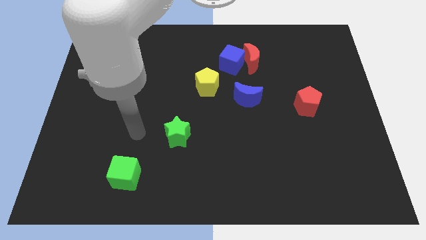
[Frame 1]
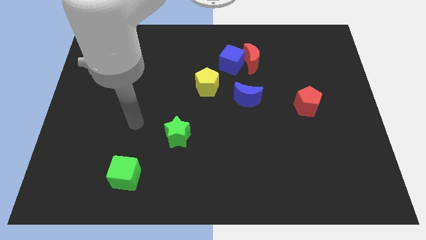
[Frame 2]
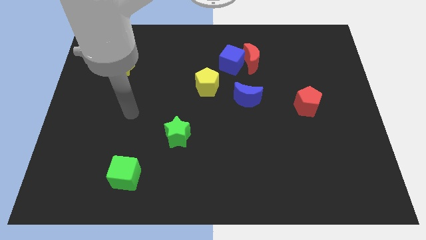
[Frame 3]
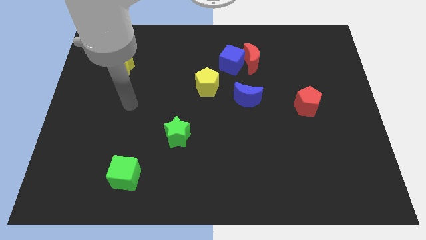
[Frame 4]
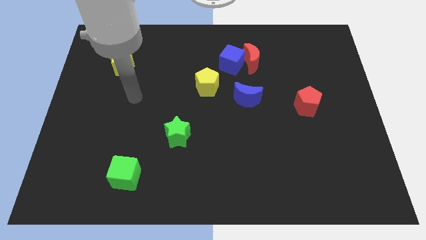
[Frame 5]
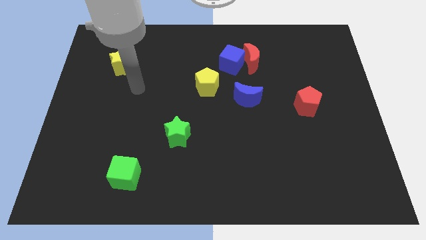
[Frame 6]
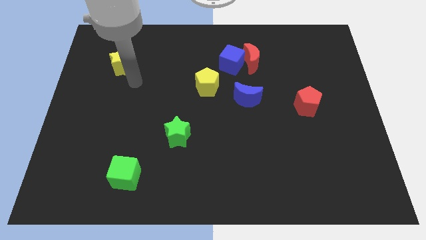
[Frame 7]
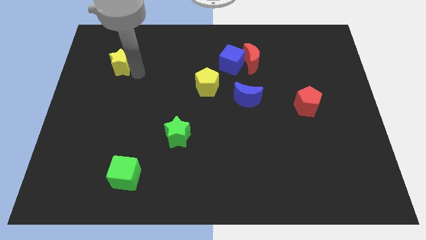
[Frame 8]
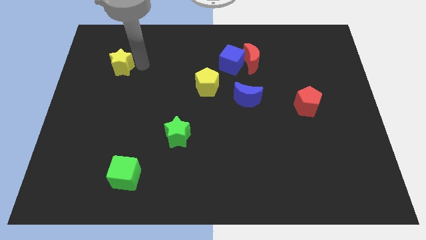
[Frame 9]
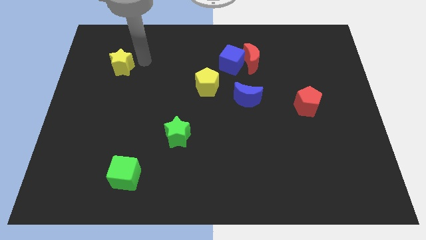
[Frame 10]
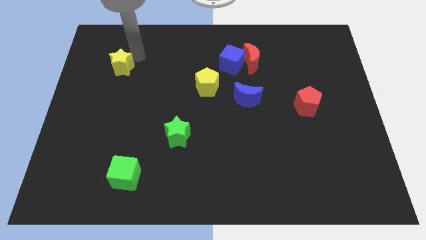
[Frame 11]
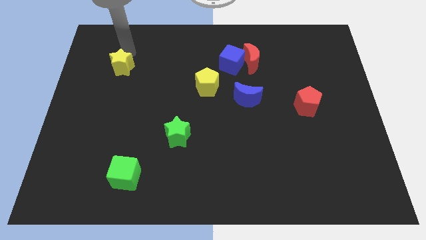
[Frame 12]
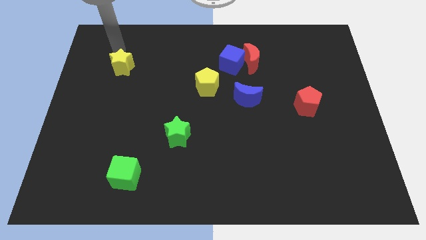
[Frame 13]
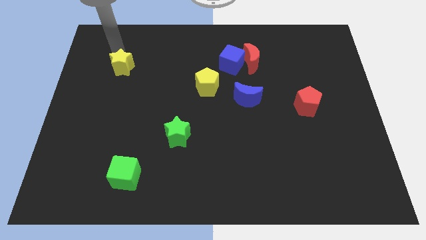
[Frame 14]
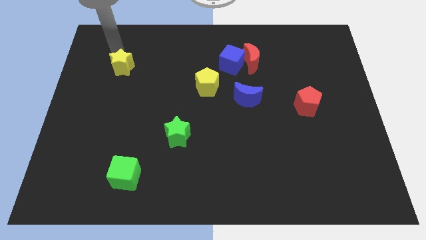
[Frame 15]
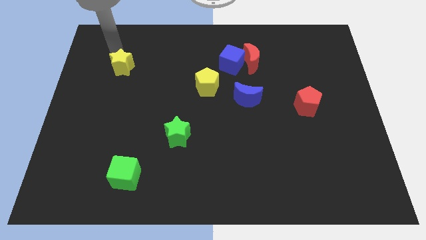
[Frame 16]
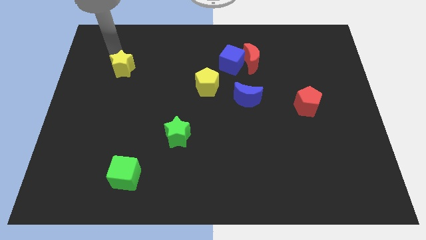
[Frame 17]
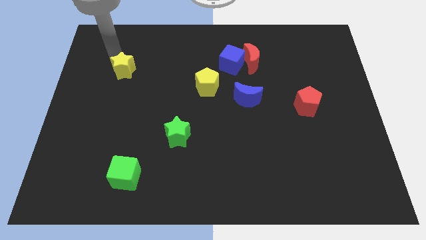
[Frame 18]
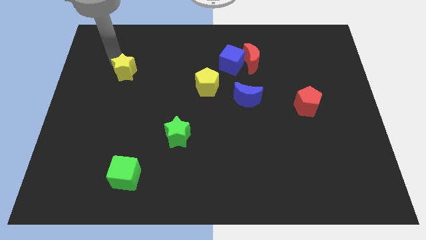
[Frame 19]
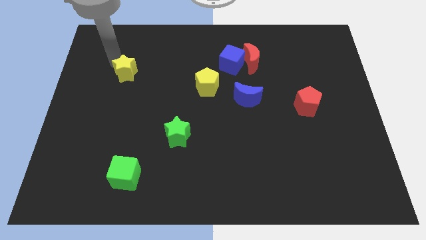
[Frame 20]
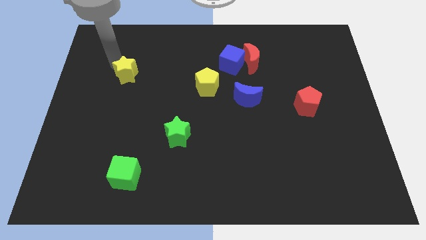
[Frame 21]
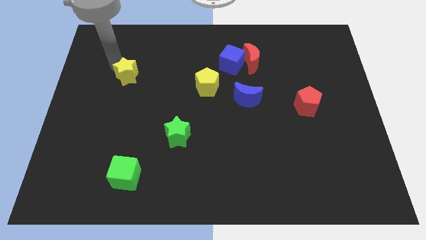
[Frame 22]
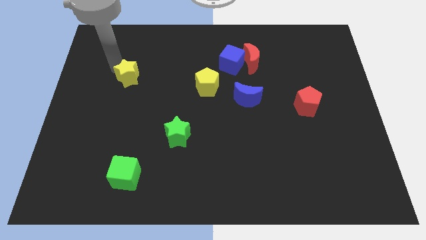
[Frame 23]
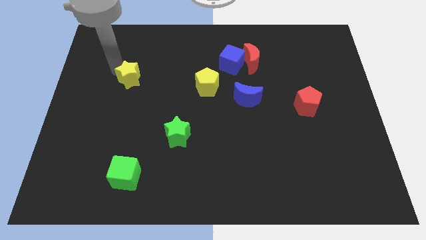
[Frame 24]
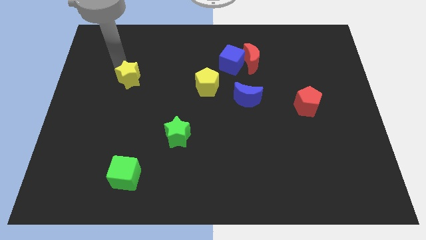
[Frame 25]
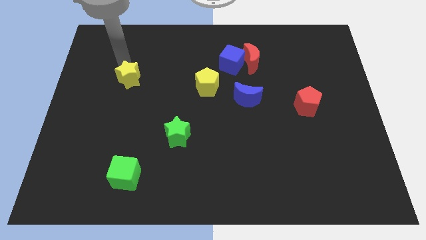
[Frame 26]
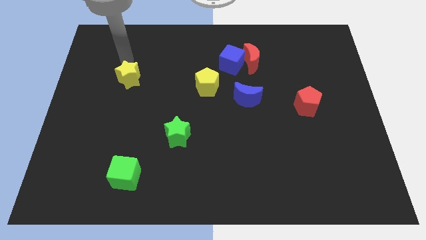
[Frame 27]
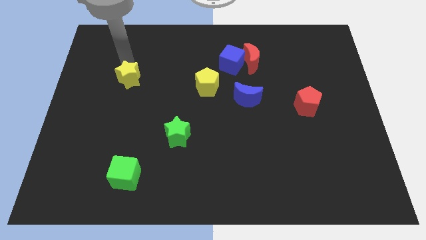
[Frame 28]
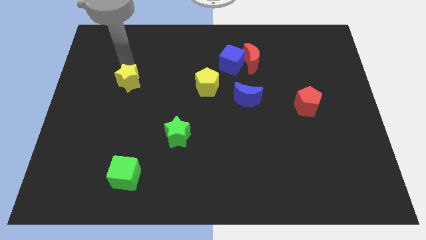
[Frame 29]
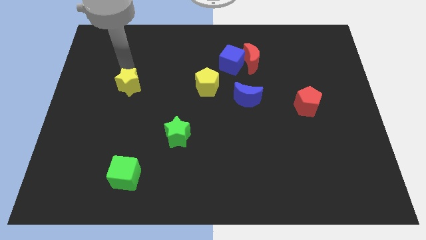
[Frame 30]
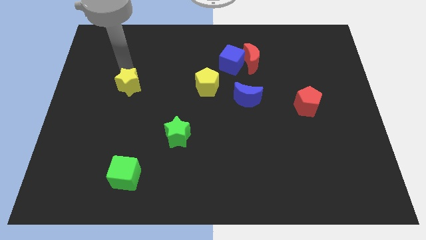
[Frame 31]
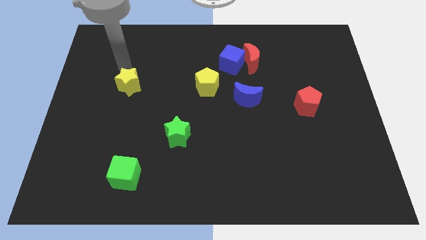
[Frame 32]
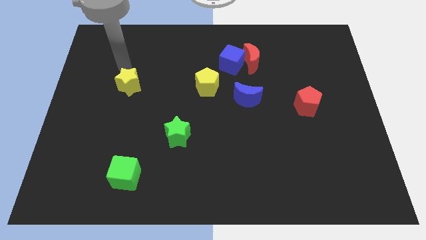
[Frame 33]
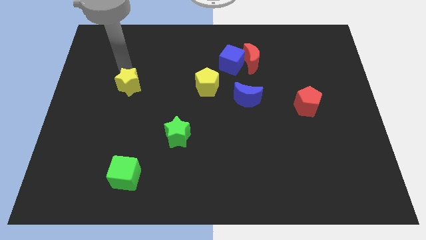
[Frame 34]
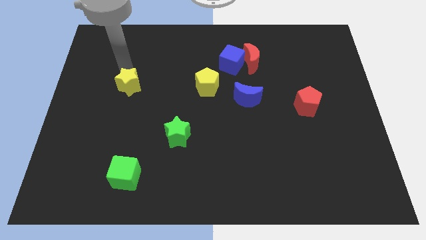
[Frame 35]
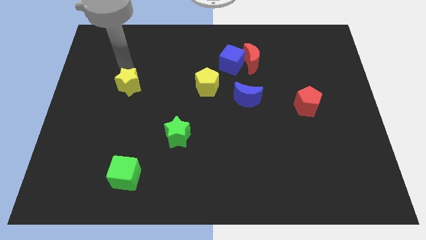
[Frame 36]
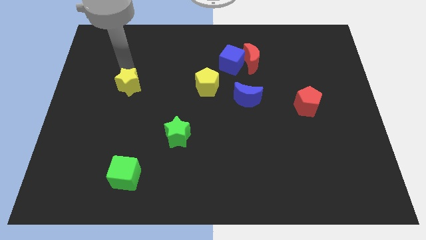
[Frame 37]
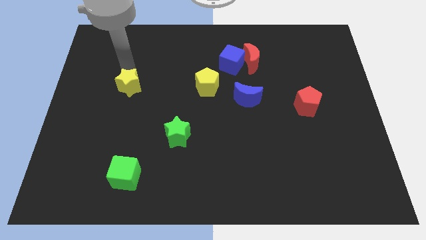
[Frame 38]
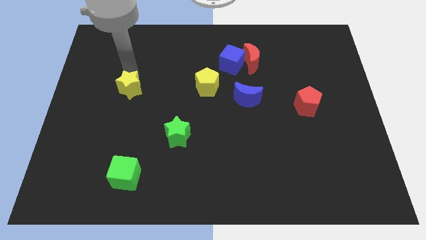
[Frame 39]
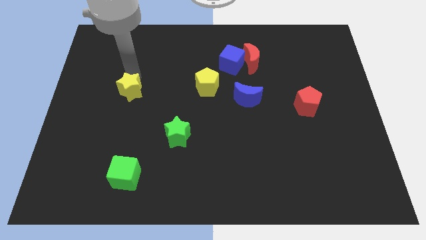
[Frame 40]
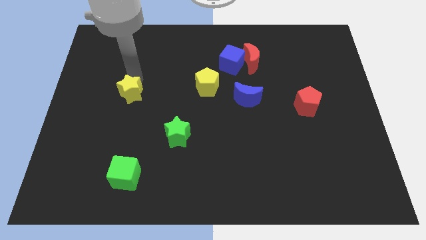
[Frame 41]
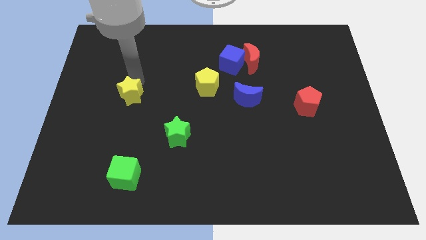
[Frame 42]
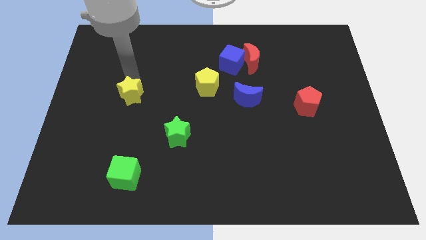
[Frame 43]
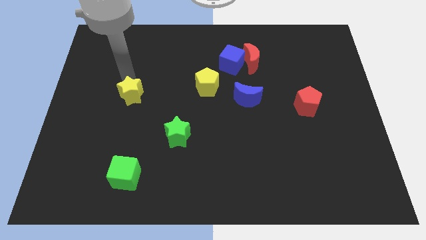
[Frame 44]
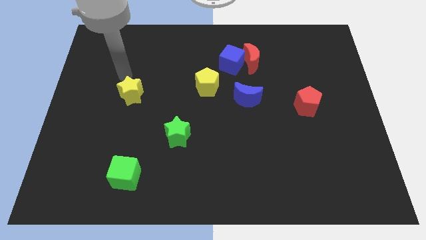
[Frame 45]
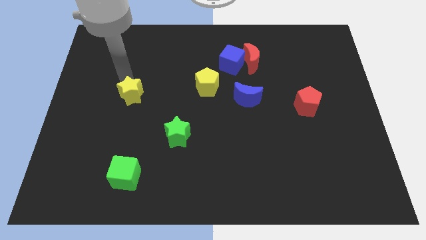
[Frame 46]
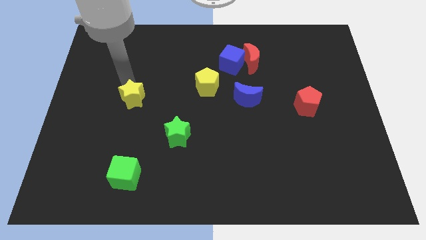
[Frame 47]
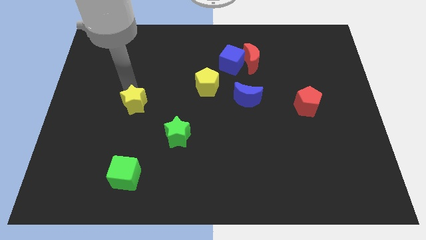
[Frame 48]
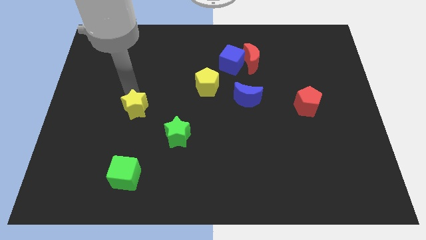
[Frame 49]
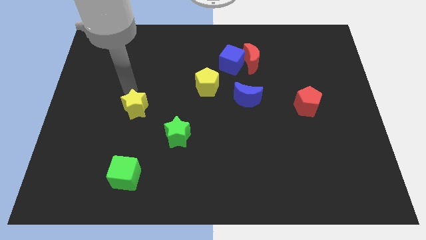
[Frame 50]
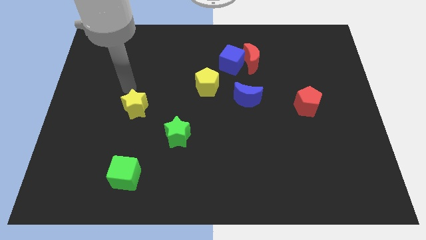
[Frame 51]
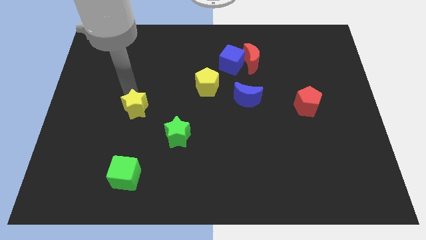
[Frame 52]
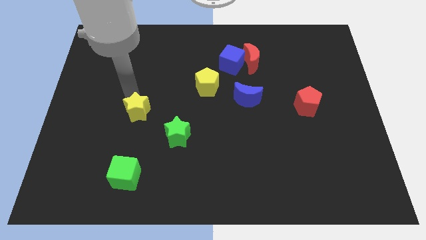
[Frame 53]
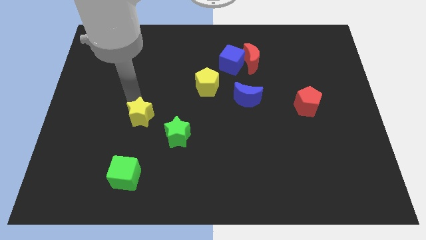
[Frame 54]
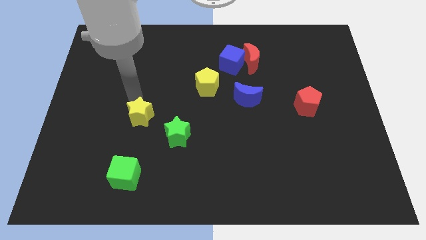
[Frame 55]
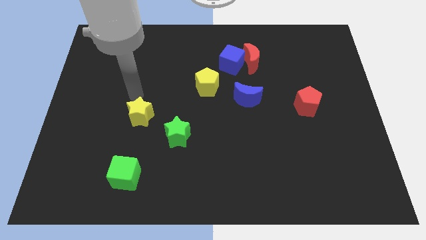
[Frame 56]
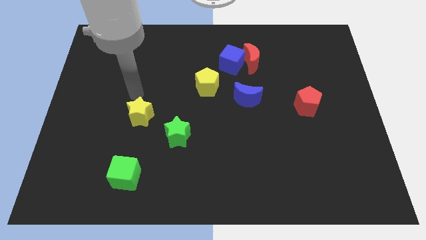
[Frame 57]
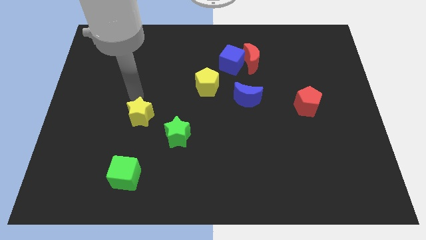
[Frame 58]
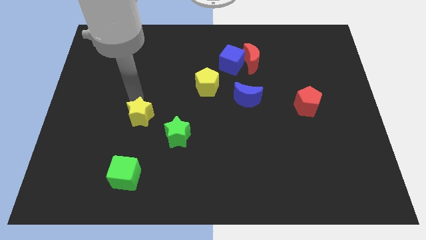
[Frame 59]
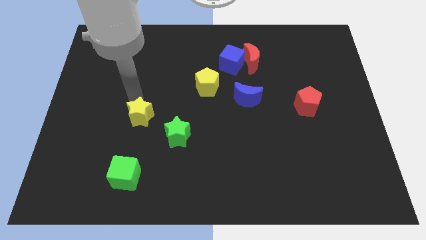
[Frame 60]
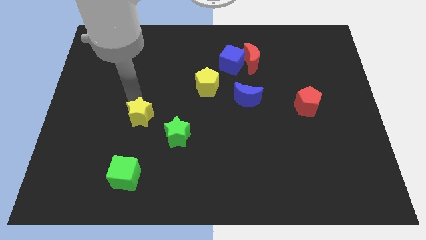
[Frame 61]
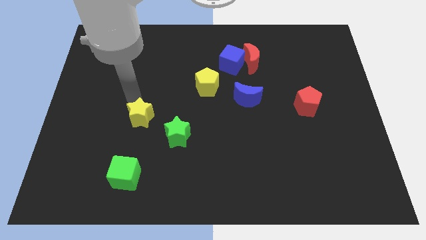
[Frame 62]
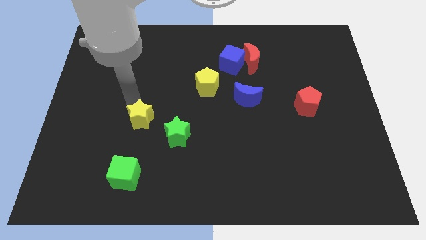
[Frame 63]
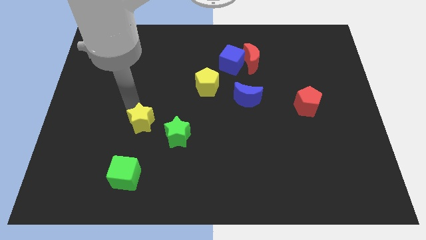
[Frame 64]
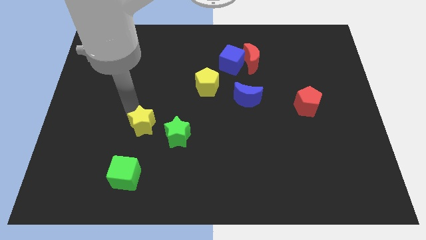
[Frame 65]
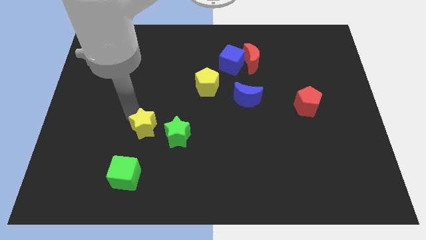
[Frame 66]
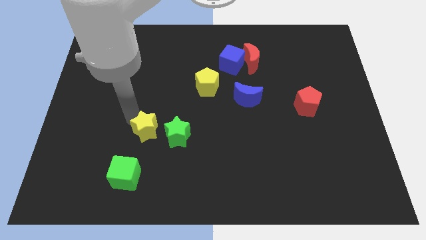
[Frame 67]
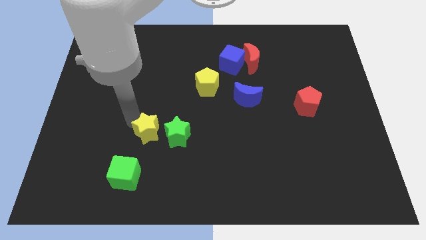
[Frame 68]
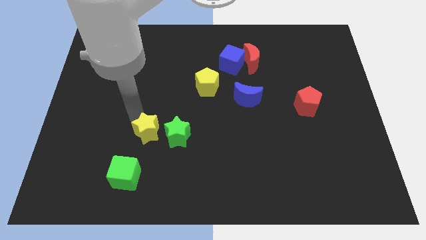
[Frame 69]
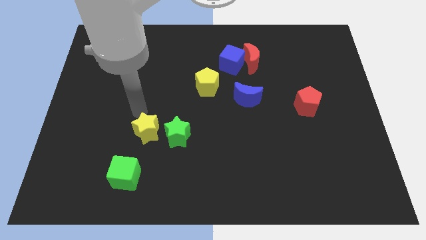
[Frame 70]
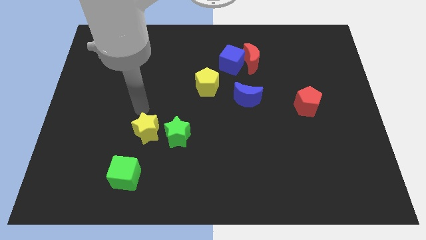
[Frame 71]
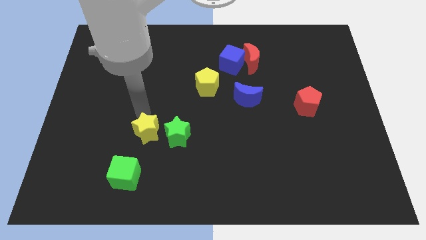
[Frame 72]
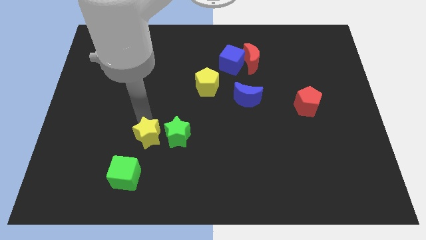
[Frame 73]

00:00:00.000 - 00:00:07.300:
move the yellow star diagonally up and to the right of the green cube
